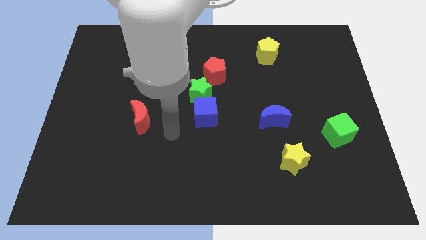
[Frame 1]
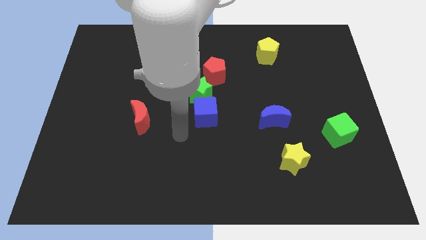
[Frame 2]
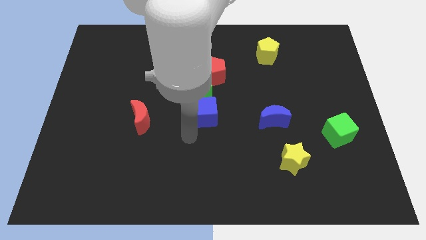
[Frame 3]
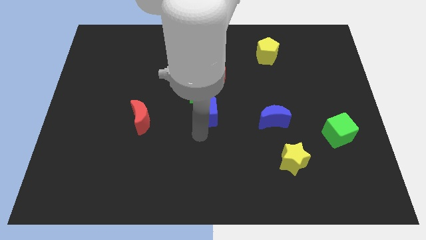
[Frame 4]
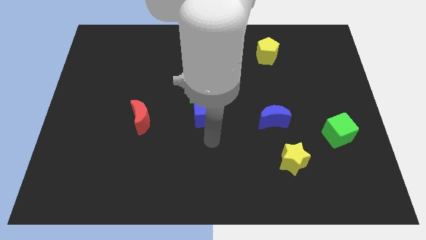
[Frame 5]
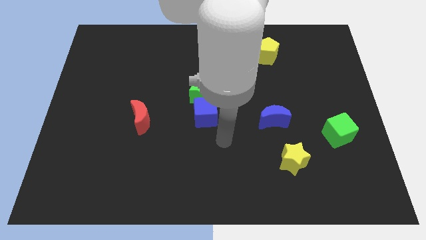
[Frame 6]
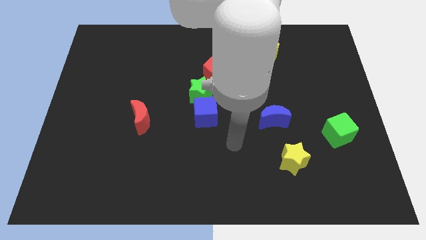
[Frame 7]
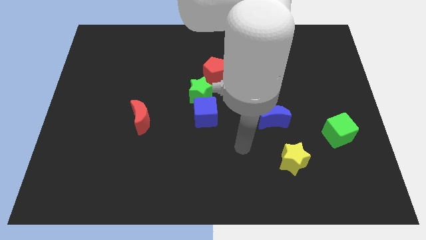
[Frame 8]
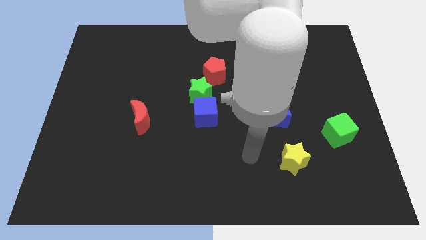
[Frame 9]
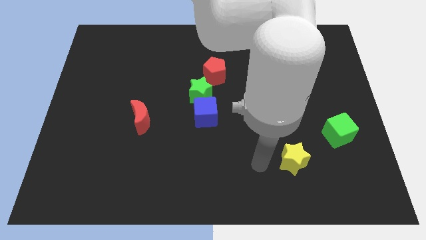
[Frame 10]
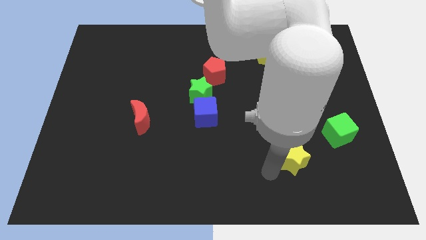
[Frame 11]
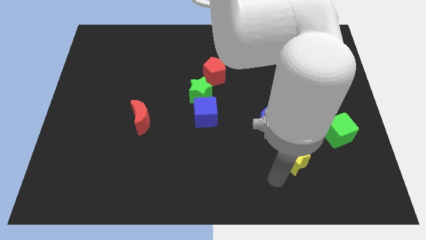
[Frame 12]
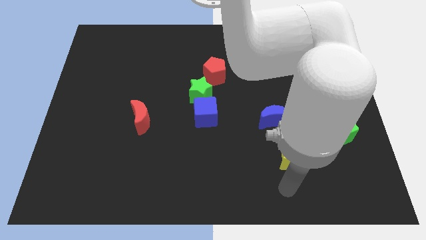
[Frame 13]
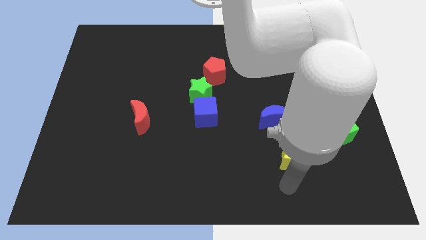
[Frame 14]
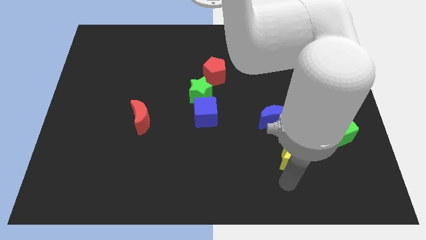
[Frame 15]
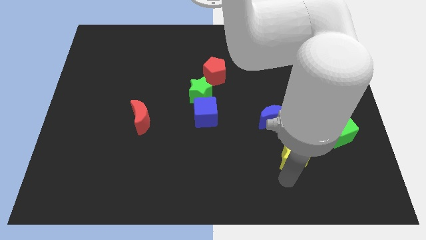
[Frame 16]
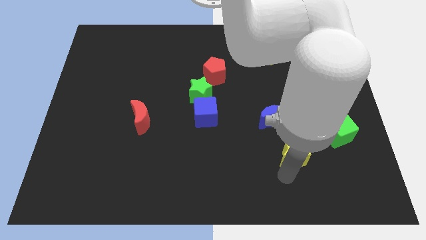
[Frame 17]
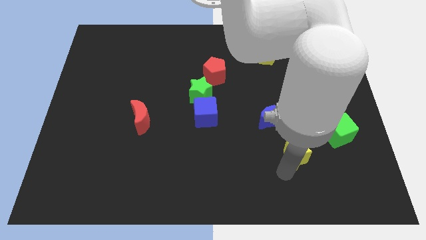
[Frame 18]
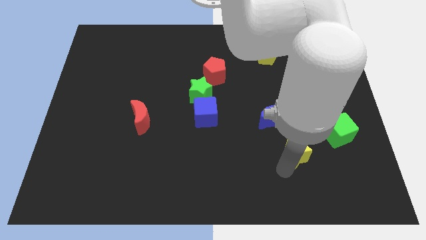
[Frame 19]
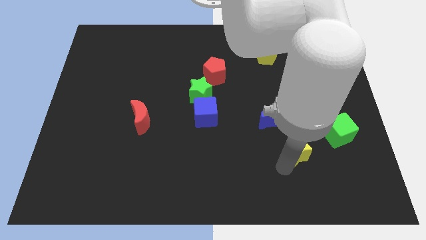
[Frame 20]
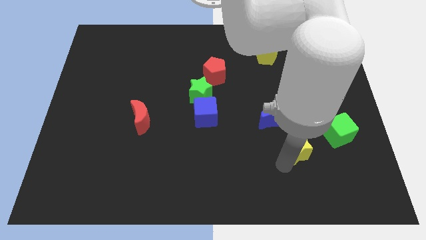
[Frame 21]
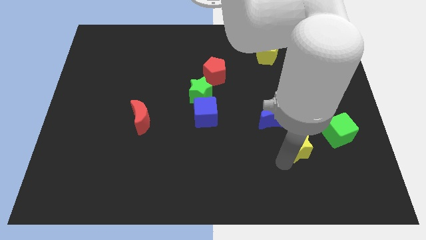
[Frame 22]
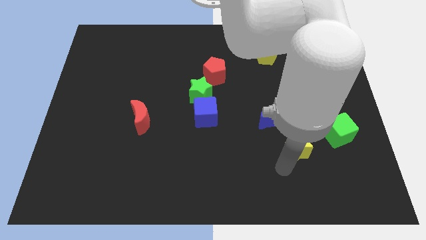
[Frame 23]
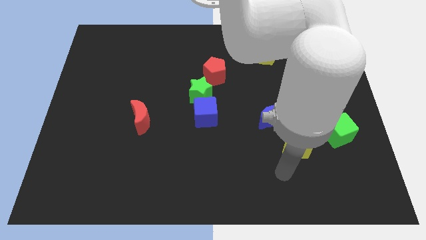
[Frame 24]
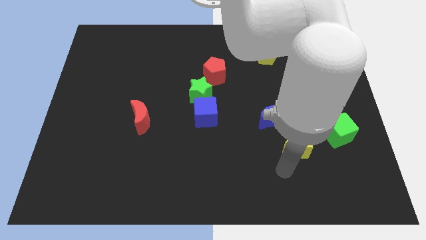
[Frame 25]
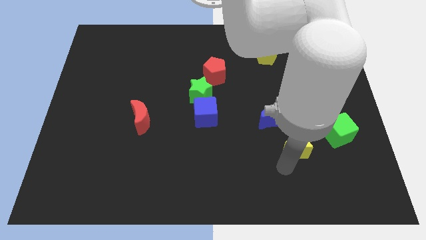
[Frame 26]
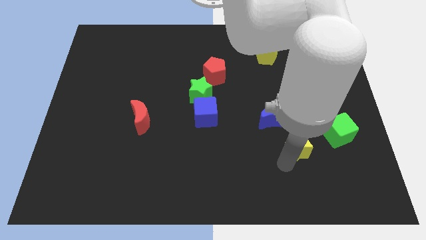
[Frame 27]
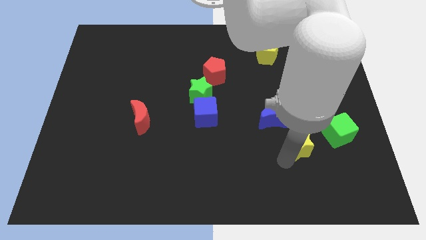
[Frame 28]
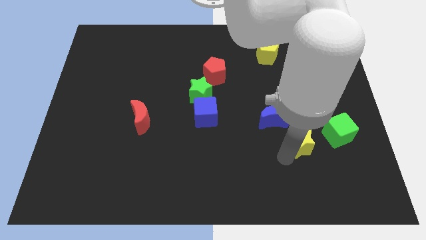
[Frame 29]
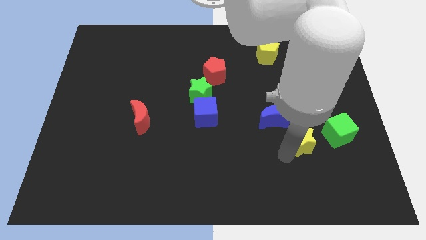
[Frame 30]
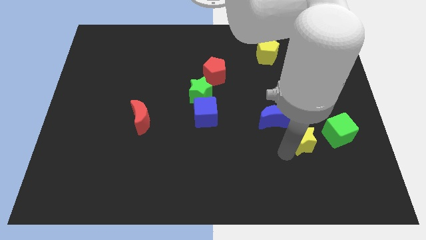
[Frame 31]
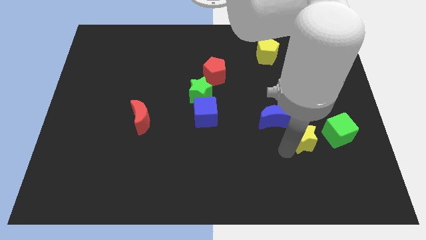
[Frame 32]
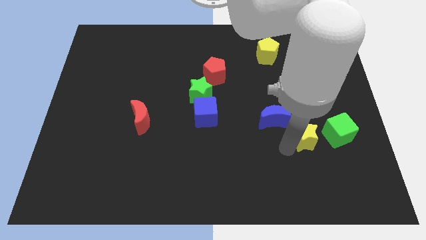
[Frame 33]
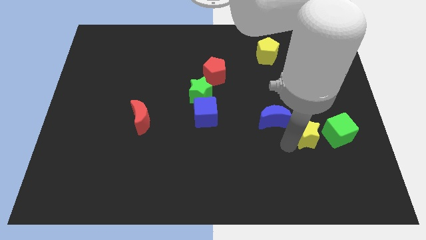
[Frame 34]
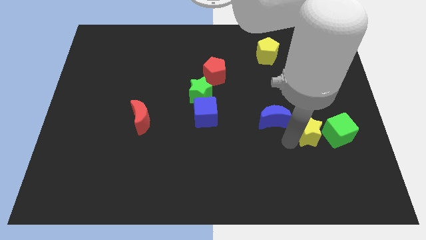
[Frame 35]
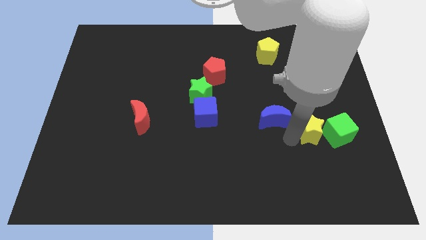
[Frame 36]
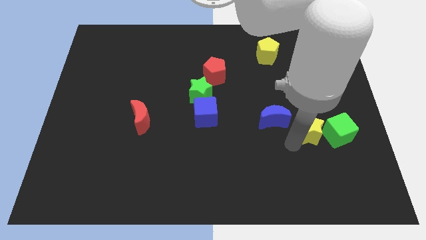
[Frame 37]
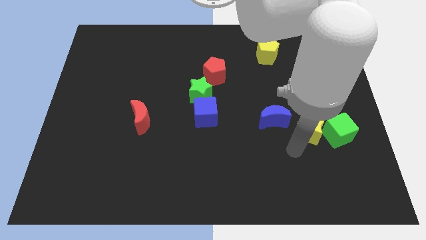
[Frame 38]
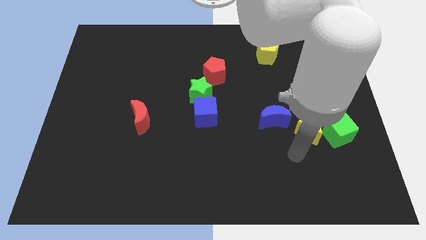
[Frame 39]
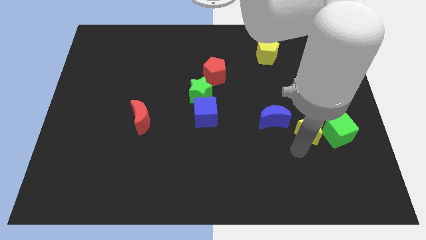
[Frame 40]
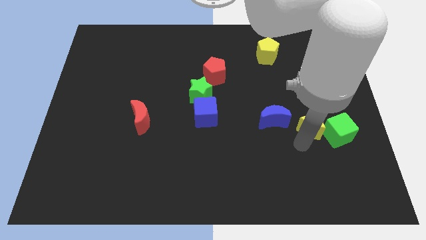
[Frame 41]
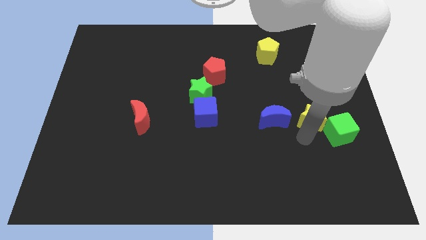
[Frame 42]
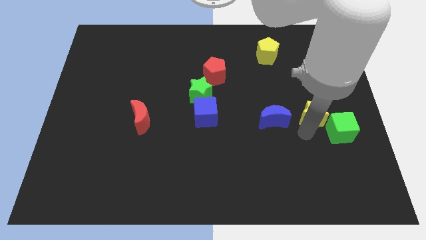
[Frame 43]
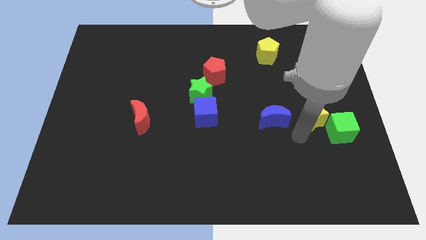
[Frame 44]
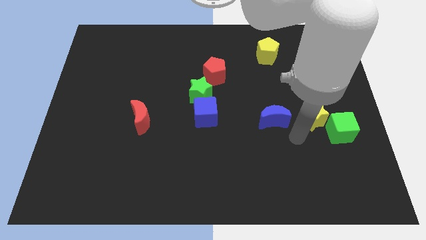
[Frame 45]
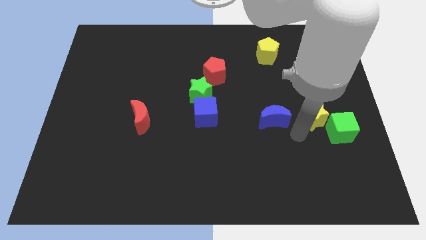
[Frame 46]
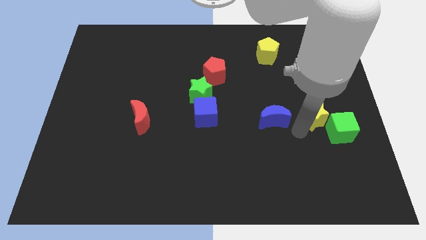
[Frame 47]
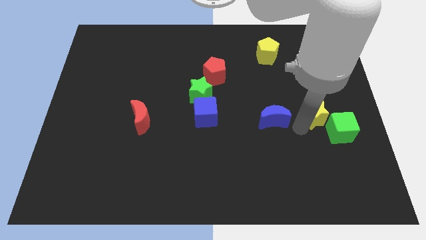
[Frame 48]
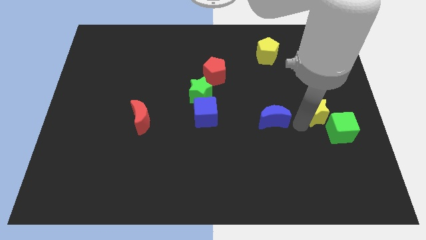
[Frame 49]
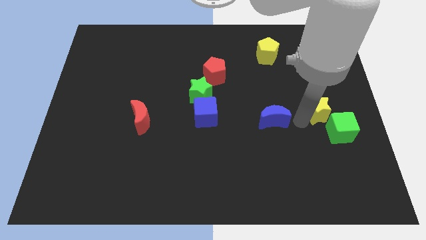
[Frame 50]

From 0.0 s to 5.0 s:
push the yellow star to the top of the green cube

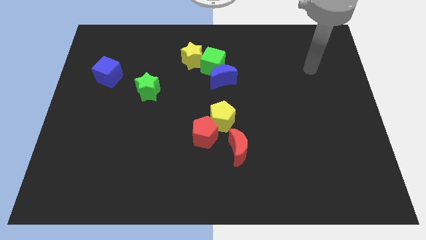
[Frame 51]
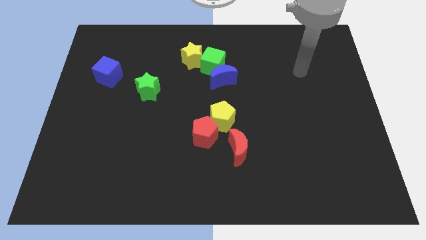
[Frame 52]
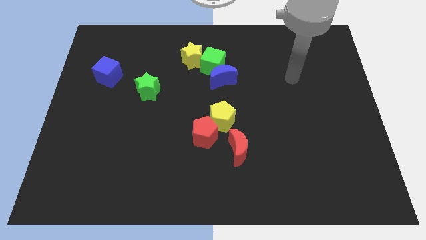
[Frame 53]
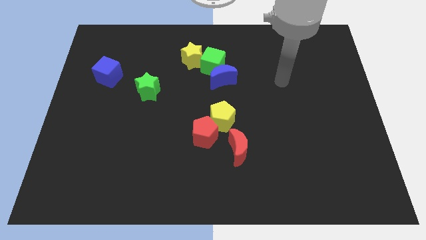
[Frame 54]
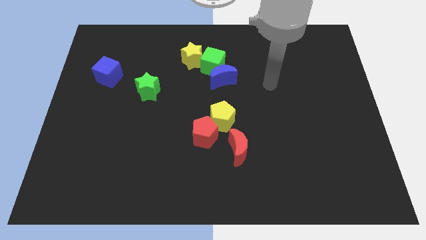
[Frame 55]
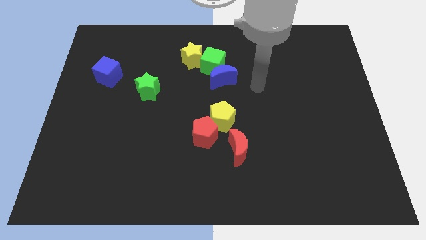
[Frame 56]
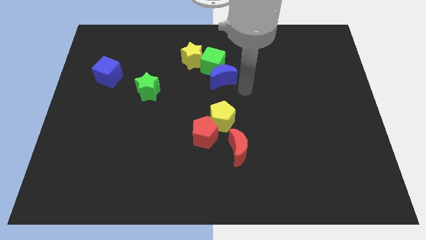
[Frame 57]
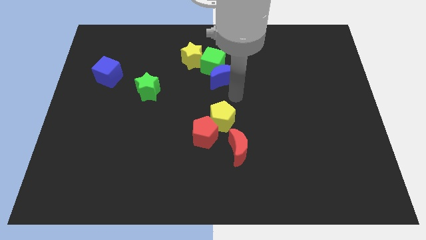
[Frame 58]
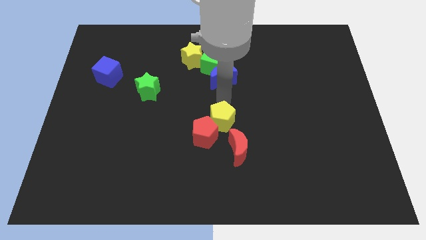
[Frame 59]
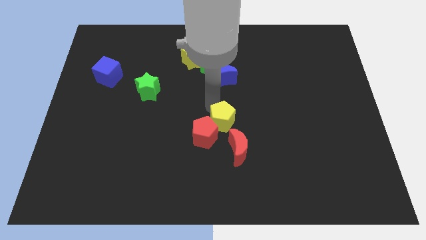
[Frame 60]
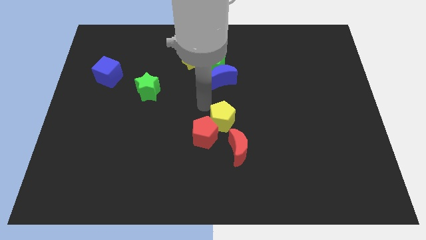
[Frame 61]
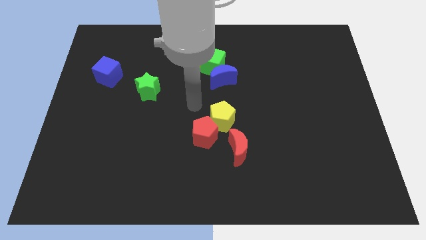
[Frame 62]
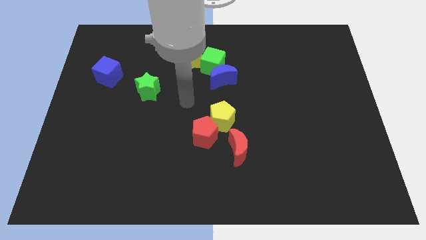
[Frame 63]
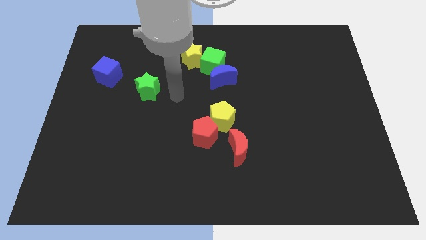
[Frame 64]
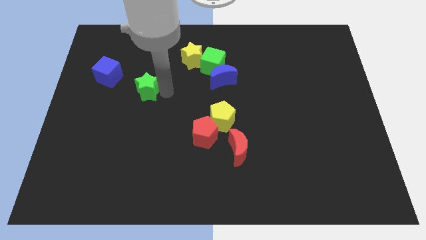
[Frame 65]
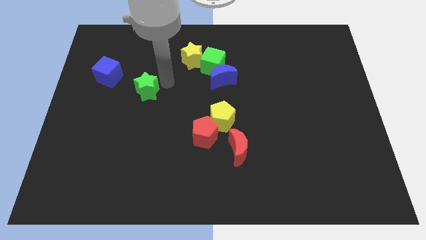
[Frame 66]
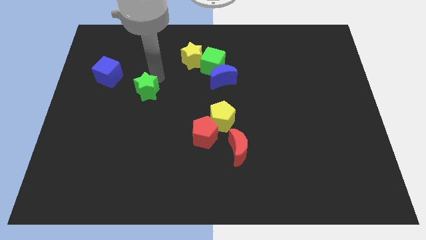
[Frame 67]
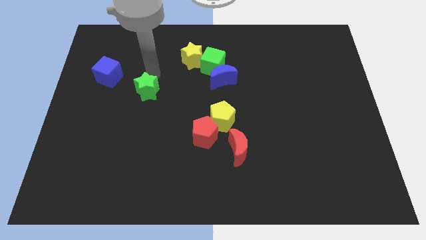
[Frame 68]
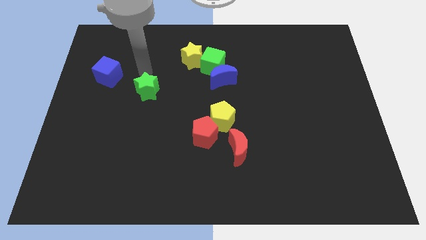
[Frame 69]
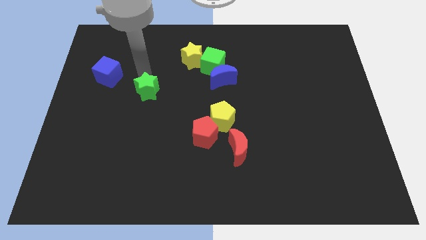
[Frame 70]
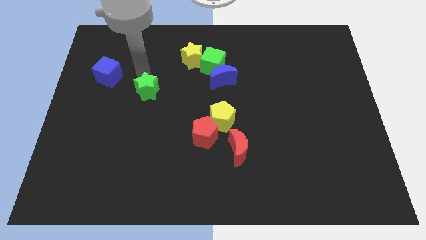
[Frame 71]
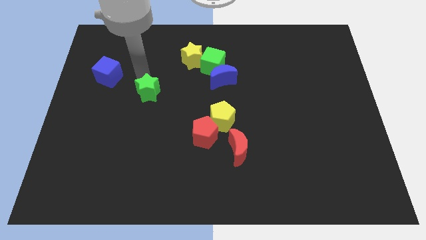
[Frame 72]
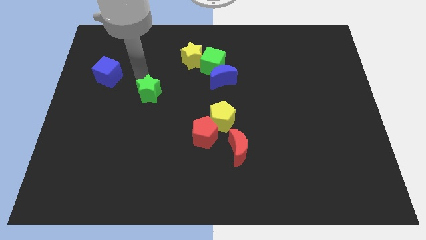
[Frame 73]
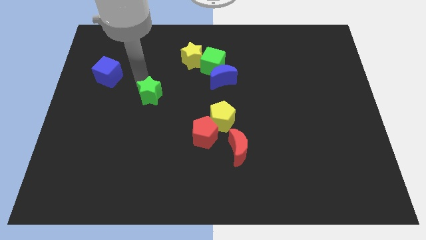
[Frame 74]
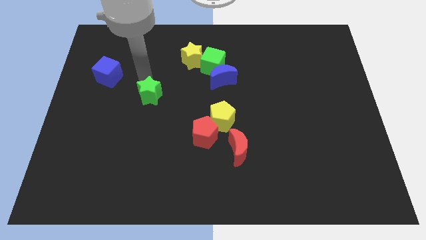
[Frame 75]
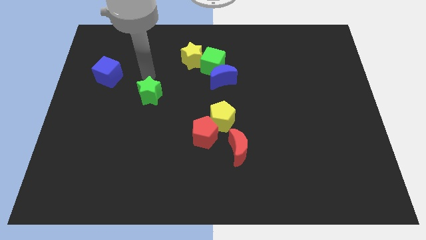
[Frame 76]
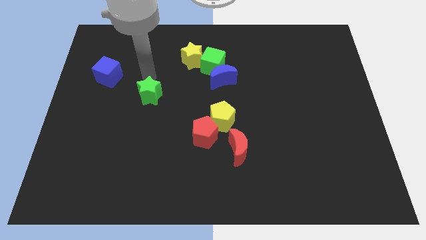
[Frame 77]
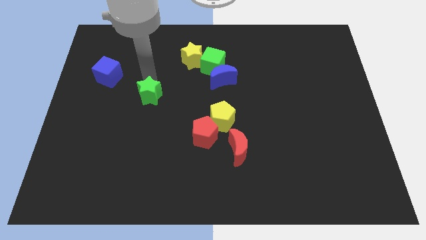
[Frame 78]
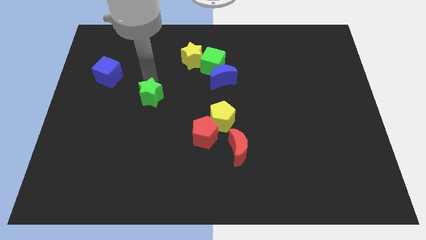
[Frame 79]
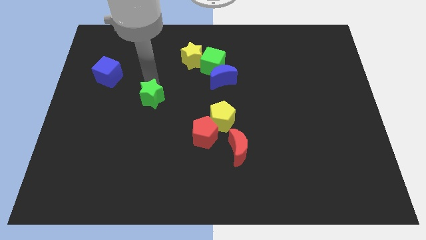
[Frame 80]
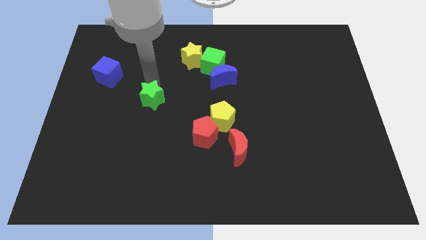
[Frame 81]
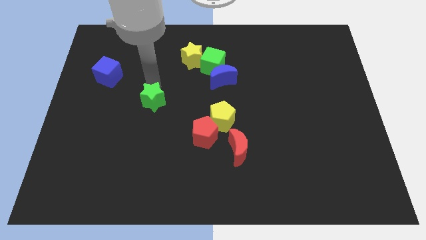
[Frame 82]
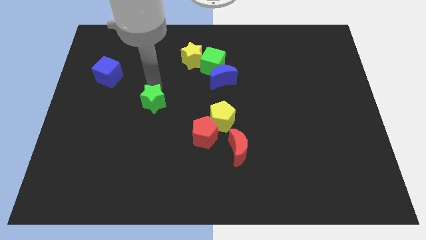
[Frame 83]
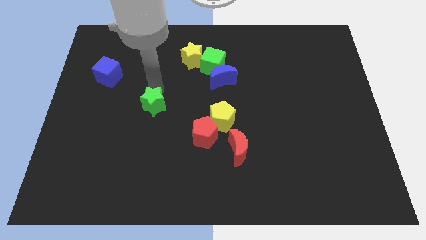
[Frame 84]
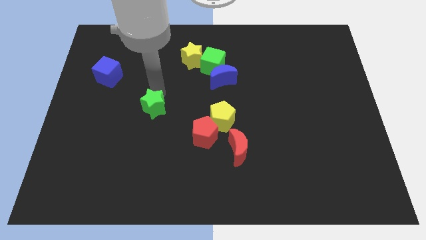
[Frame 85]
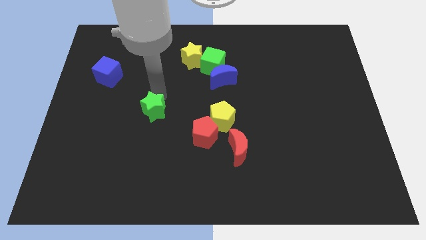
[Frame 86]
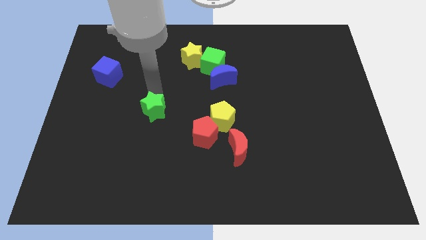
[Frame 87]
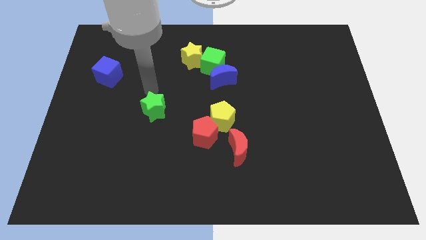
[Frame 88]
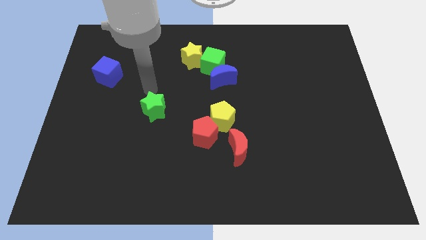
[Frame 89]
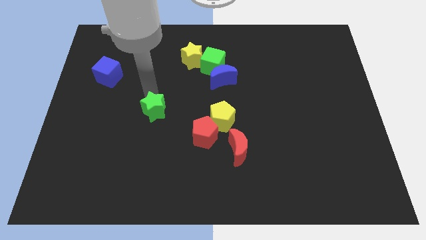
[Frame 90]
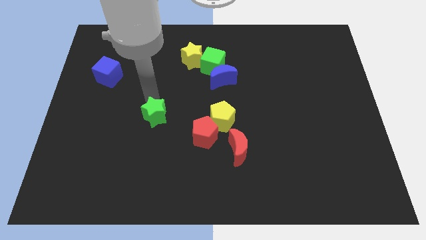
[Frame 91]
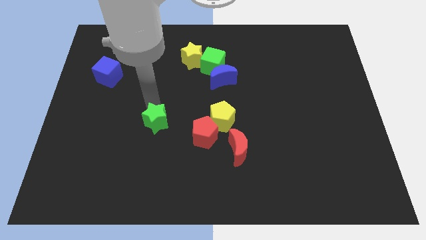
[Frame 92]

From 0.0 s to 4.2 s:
push the green star to the left side of the red pentagon
